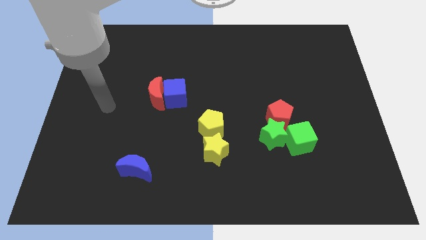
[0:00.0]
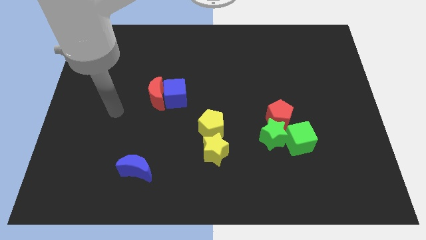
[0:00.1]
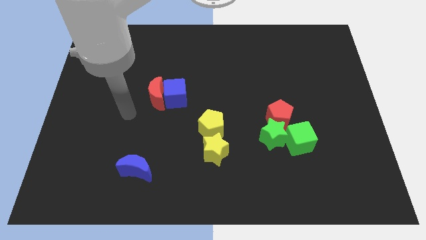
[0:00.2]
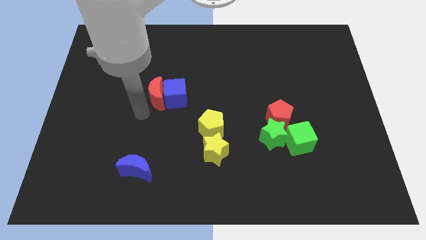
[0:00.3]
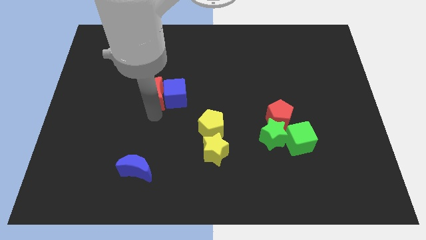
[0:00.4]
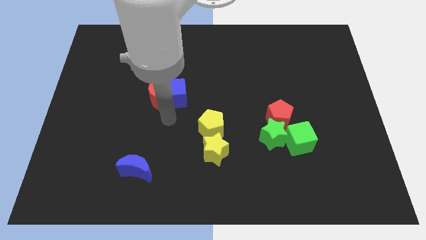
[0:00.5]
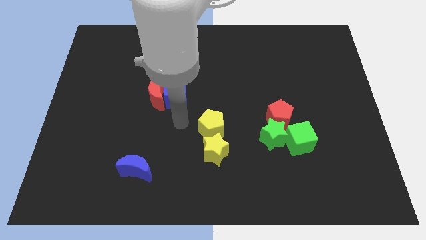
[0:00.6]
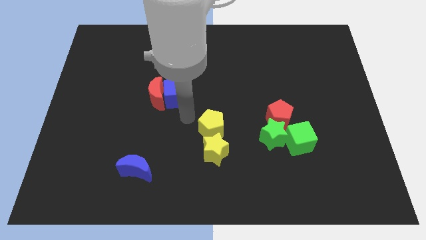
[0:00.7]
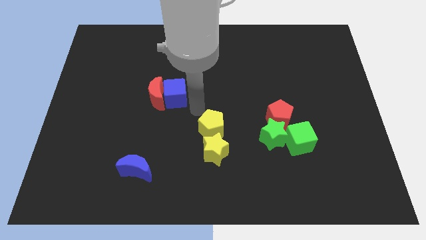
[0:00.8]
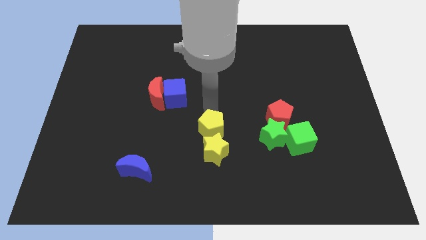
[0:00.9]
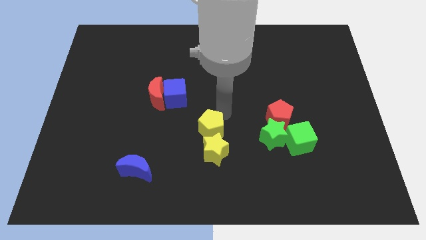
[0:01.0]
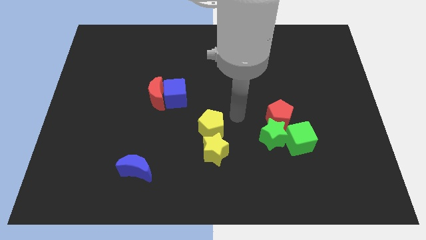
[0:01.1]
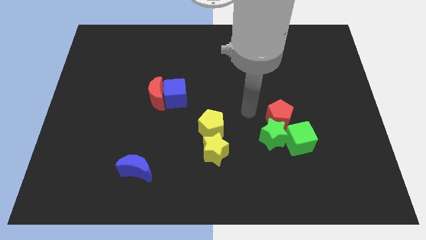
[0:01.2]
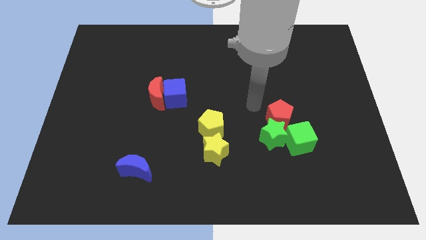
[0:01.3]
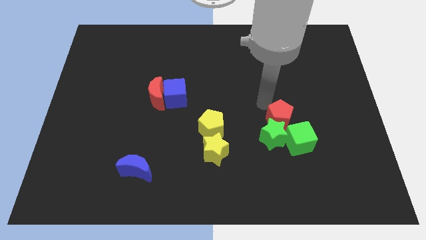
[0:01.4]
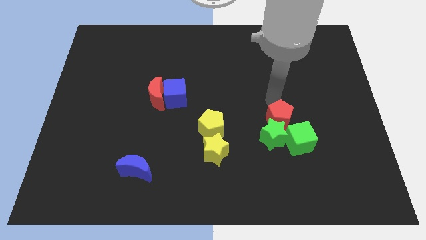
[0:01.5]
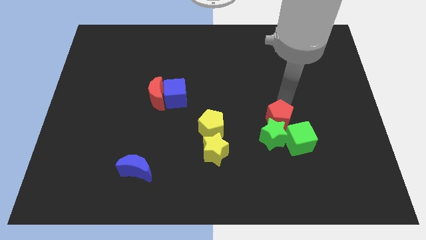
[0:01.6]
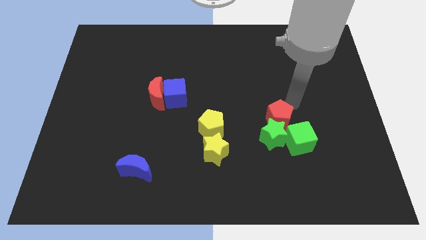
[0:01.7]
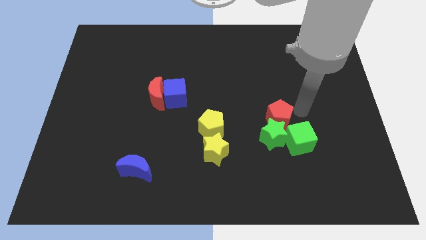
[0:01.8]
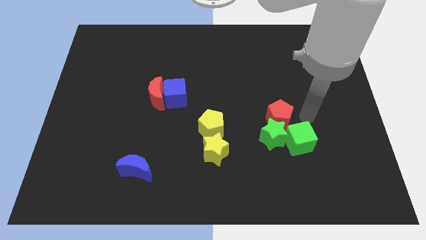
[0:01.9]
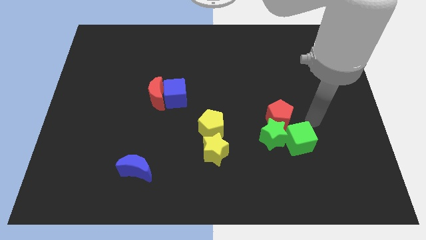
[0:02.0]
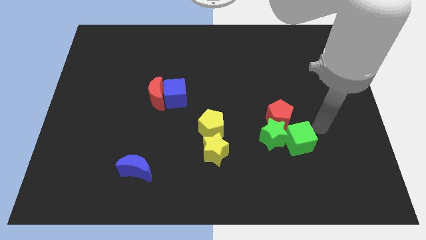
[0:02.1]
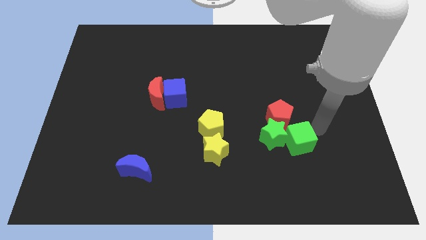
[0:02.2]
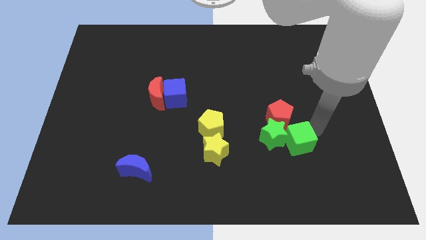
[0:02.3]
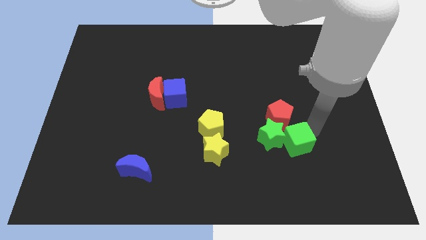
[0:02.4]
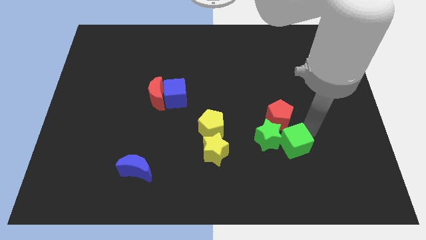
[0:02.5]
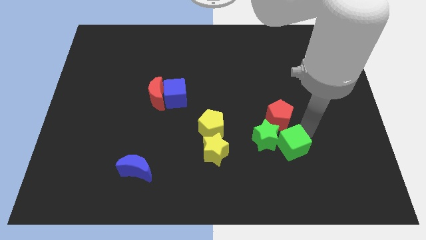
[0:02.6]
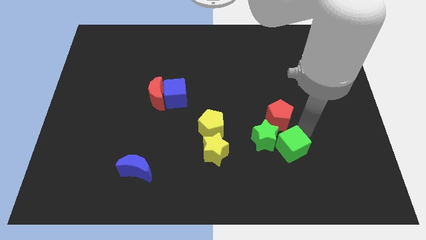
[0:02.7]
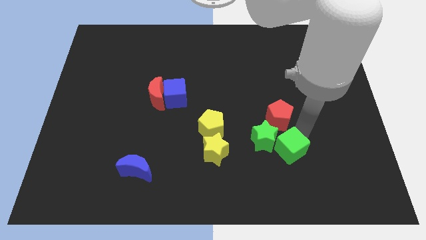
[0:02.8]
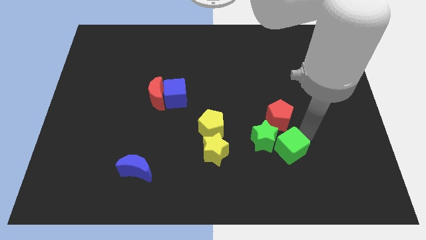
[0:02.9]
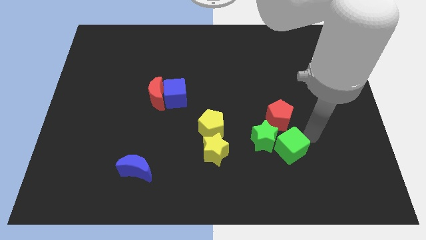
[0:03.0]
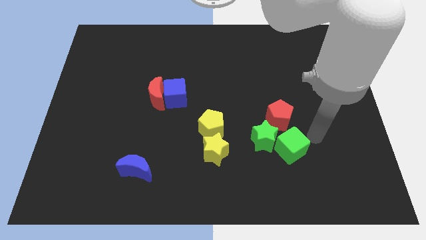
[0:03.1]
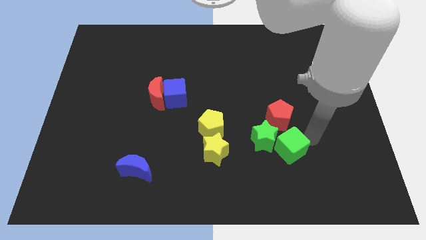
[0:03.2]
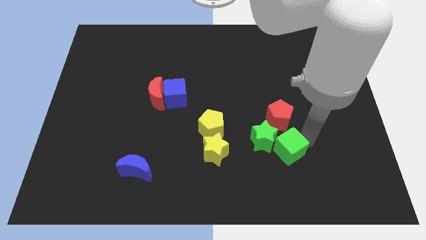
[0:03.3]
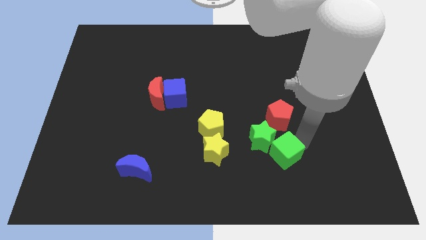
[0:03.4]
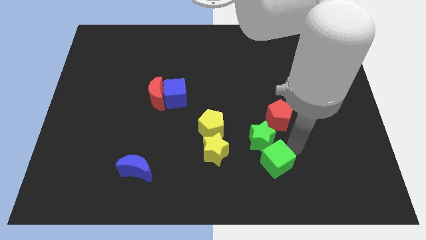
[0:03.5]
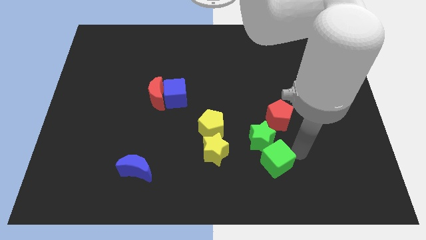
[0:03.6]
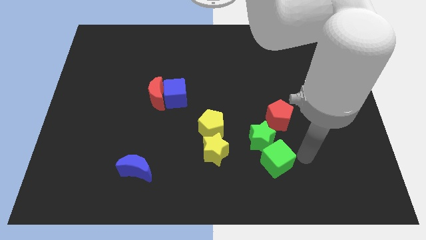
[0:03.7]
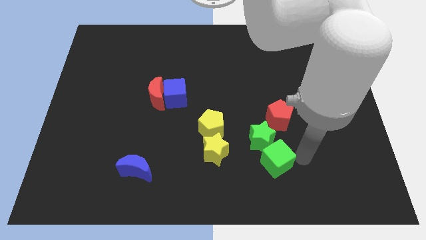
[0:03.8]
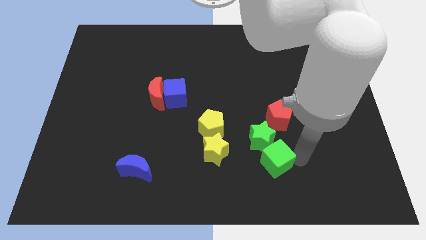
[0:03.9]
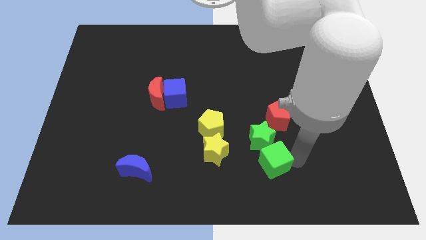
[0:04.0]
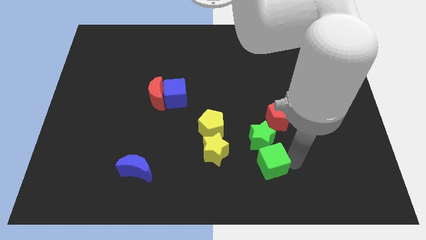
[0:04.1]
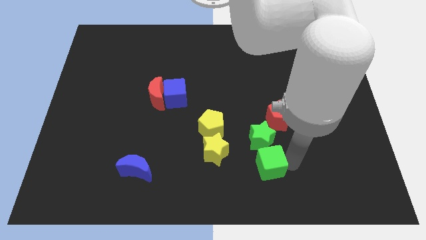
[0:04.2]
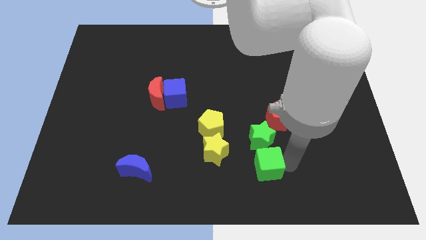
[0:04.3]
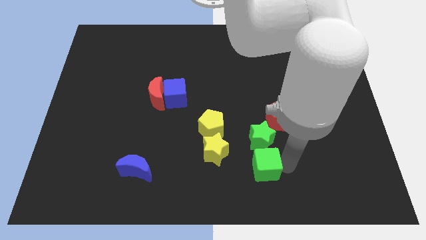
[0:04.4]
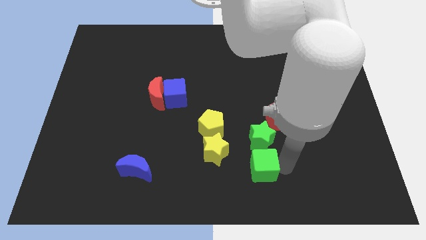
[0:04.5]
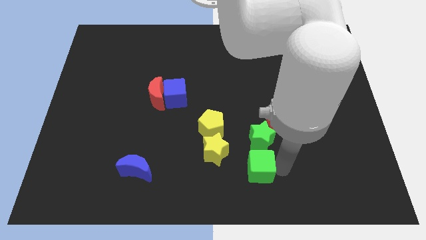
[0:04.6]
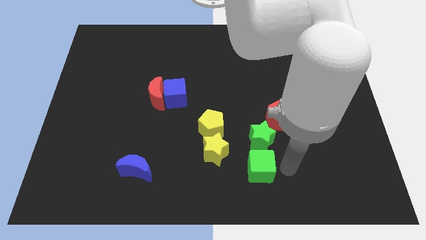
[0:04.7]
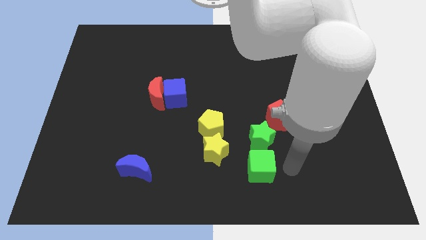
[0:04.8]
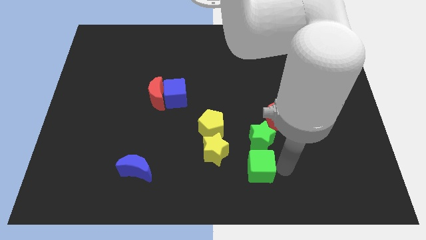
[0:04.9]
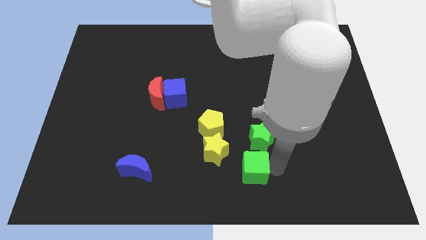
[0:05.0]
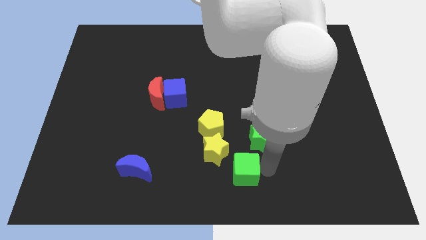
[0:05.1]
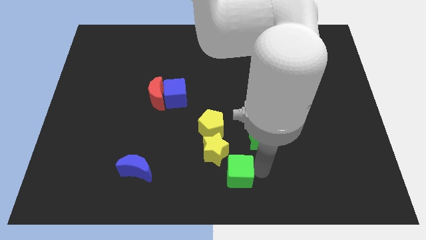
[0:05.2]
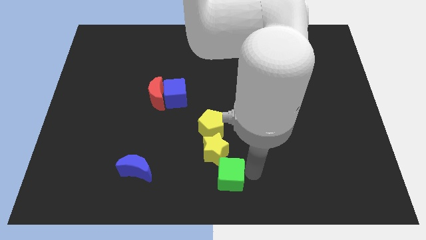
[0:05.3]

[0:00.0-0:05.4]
put the green cube to the bottom of the yellow pentagon

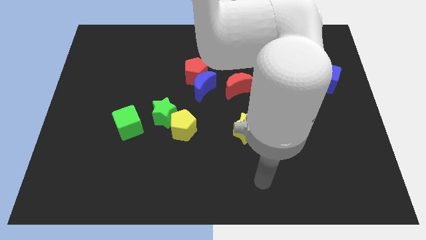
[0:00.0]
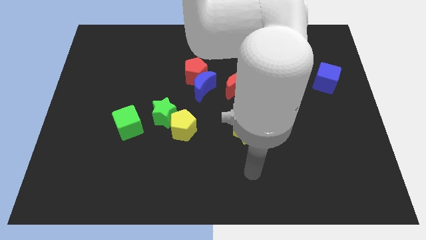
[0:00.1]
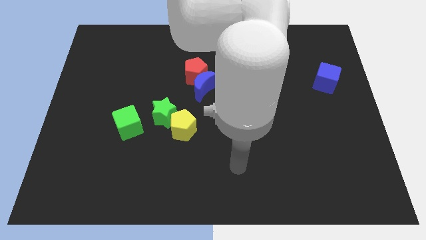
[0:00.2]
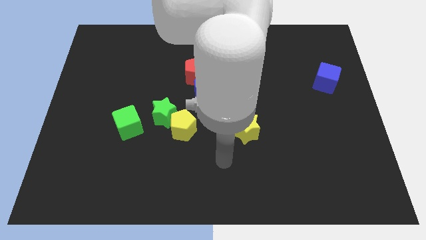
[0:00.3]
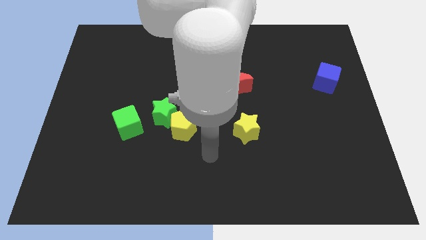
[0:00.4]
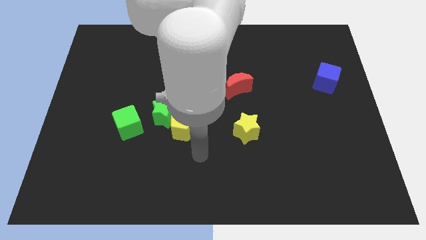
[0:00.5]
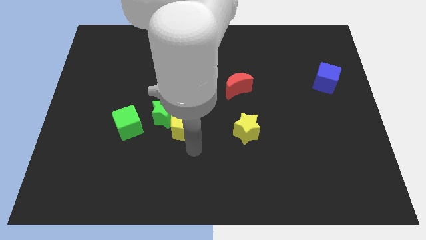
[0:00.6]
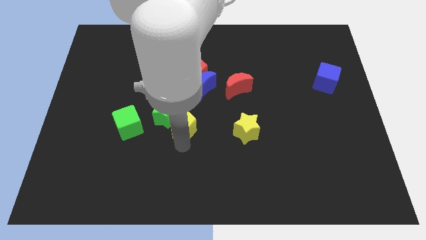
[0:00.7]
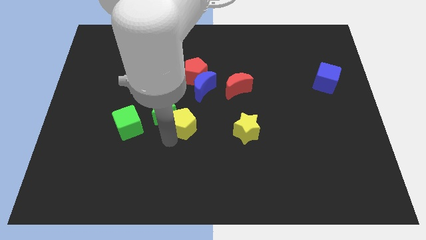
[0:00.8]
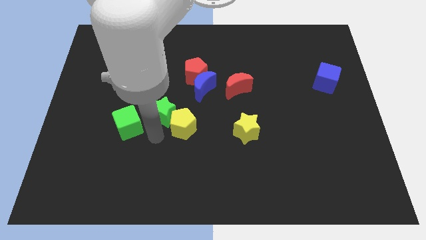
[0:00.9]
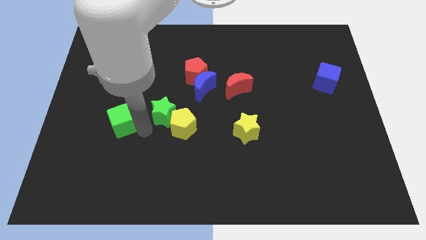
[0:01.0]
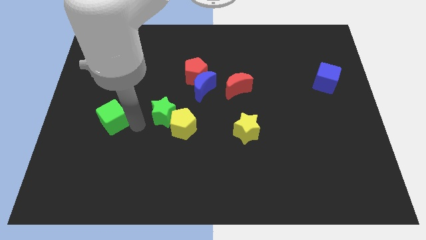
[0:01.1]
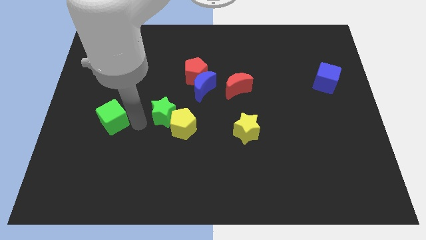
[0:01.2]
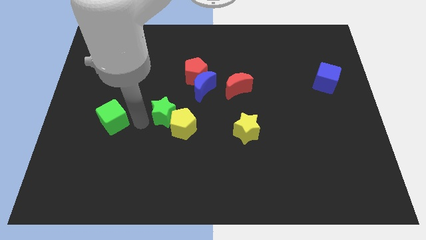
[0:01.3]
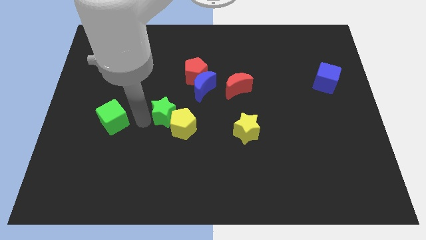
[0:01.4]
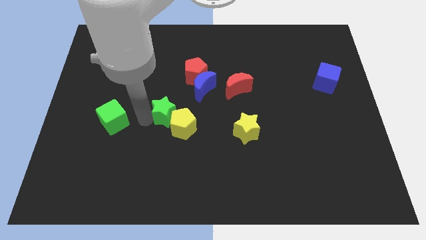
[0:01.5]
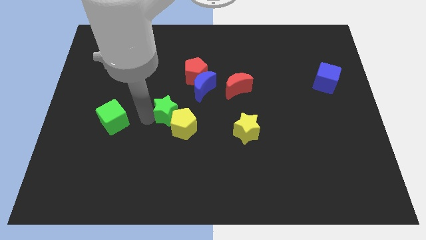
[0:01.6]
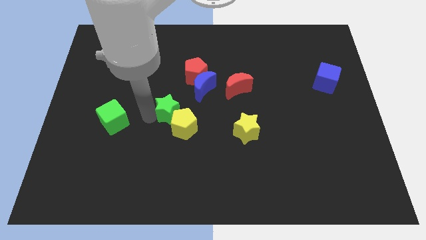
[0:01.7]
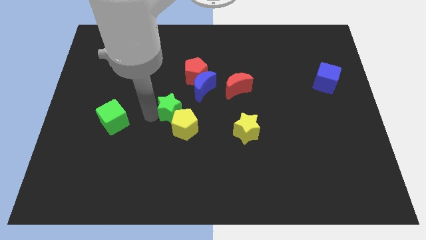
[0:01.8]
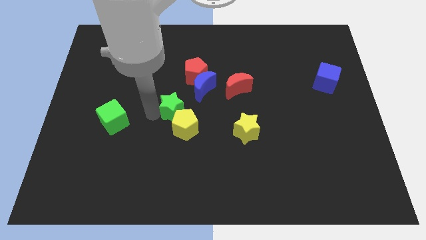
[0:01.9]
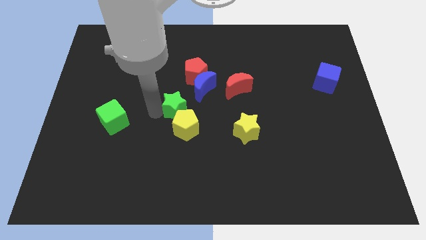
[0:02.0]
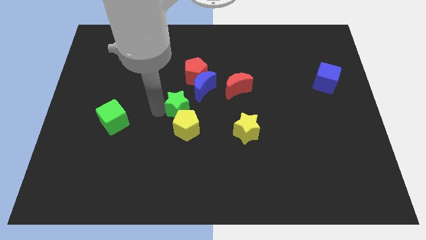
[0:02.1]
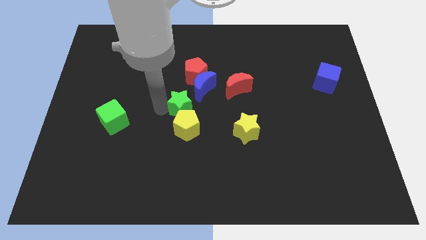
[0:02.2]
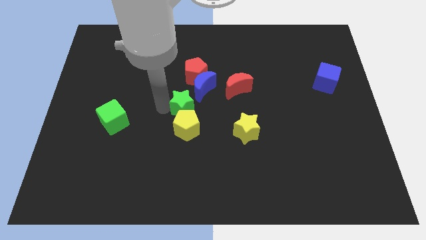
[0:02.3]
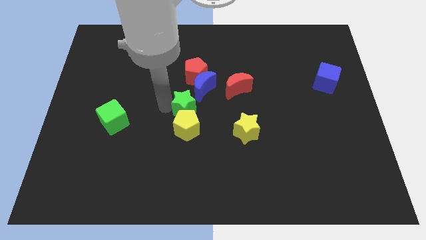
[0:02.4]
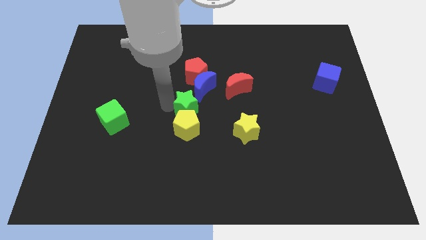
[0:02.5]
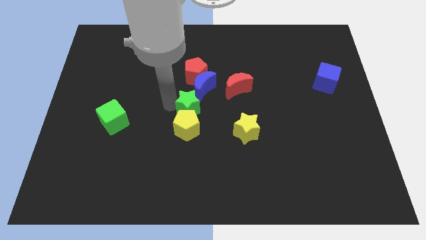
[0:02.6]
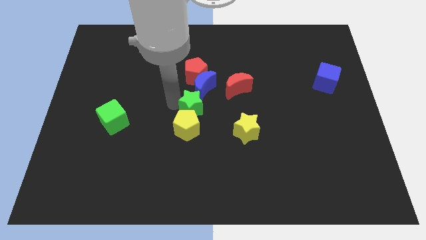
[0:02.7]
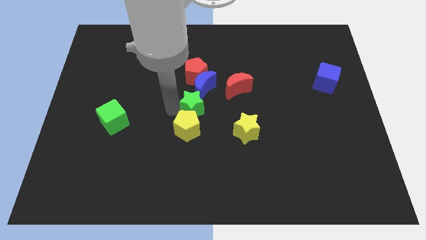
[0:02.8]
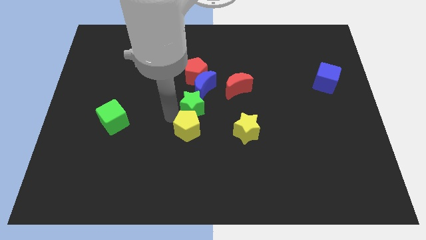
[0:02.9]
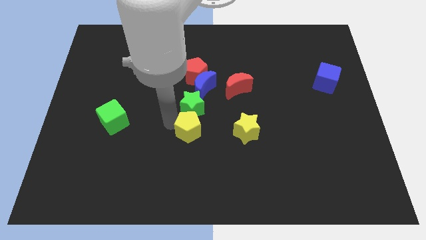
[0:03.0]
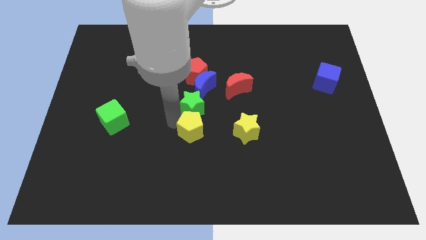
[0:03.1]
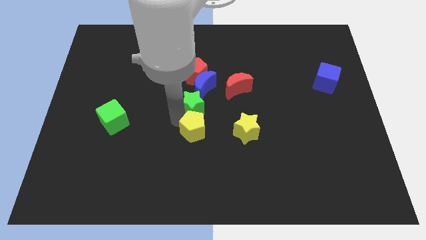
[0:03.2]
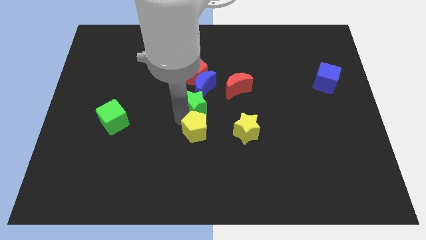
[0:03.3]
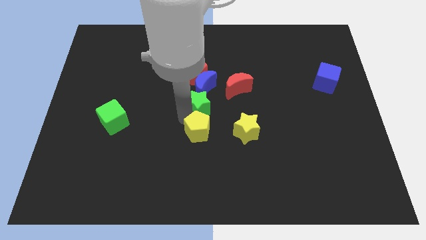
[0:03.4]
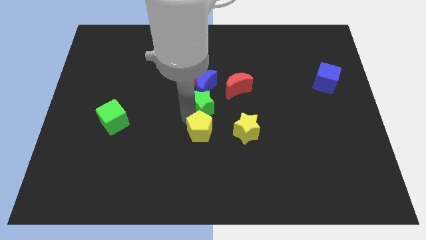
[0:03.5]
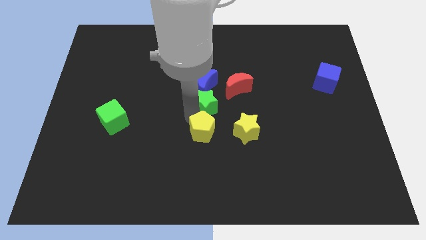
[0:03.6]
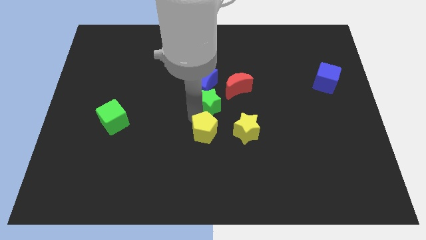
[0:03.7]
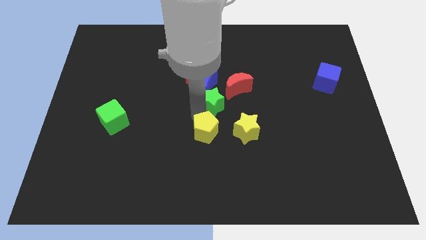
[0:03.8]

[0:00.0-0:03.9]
put the green star diagonally down and to the right of the red pentagon
